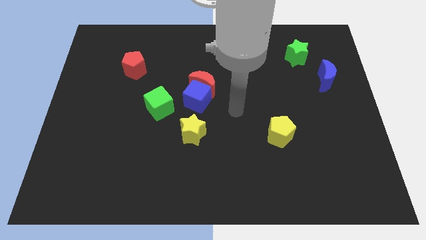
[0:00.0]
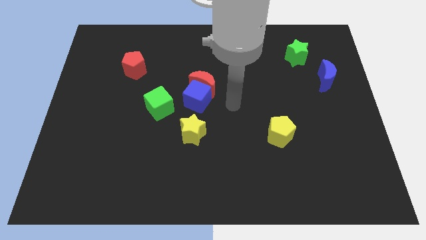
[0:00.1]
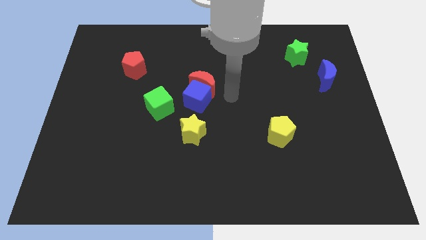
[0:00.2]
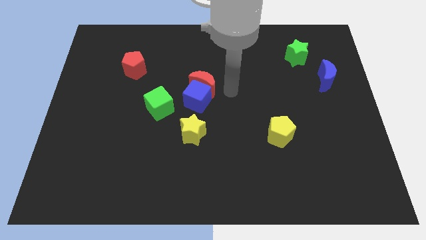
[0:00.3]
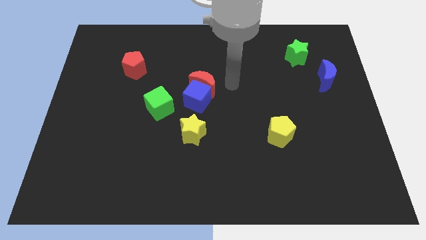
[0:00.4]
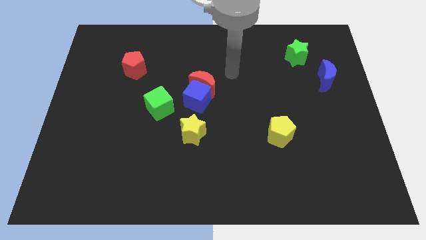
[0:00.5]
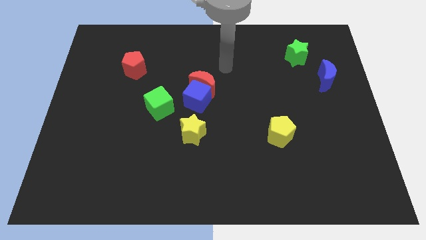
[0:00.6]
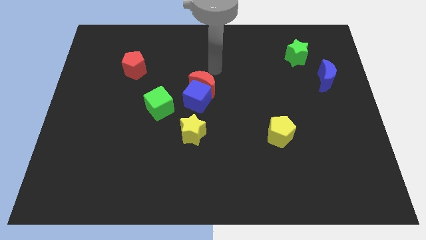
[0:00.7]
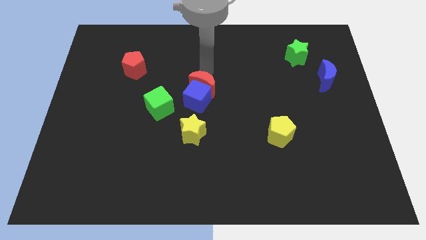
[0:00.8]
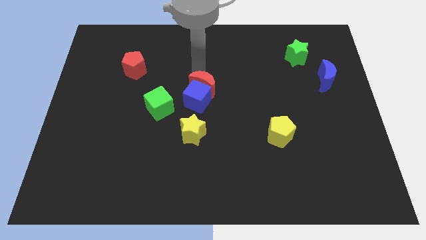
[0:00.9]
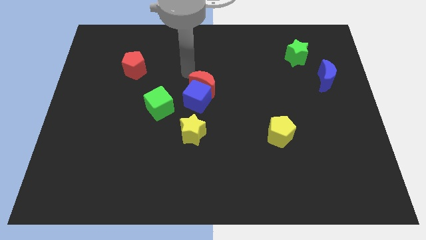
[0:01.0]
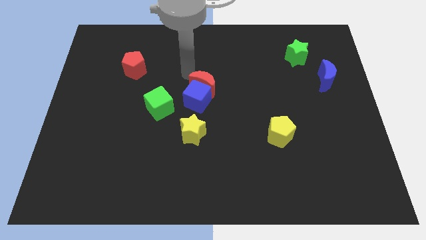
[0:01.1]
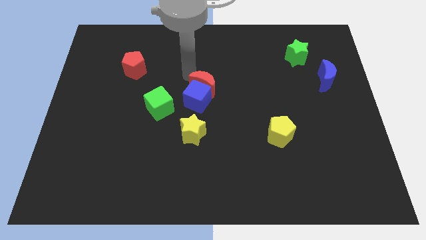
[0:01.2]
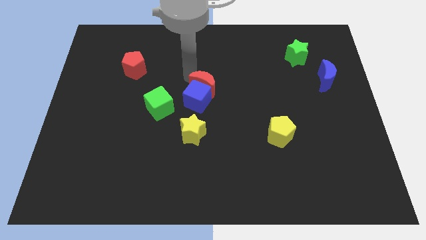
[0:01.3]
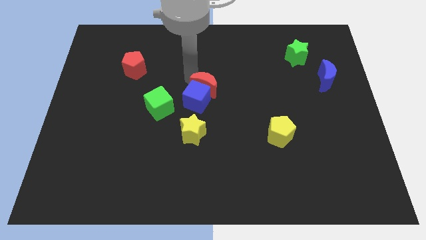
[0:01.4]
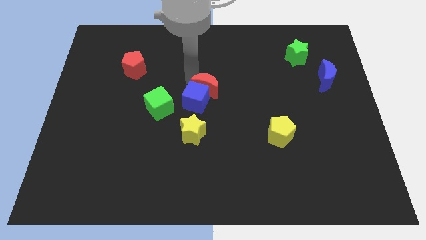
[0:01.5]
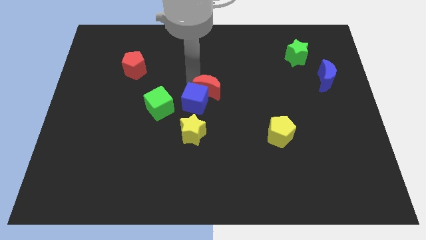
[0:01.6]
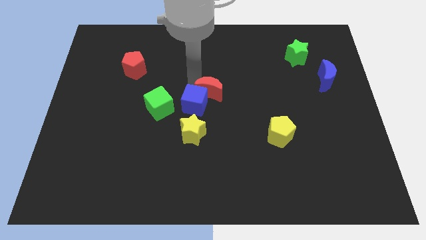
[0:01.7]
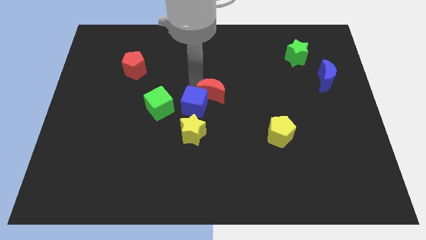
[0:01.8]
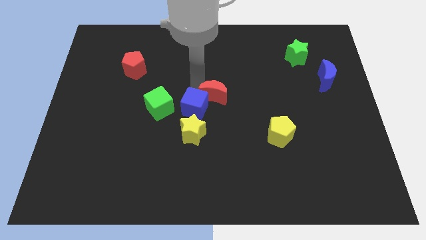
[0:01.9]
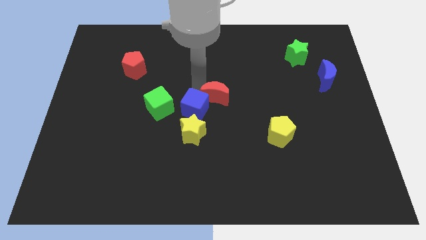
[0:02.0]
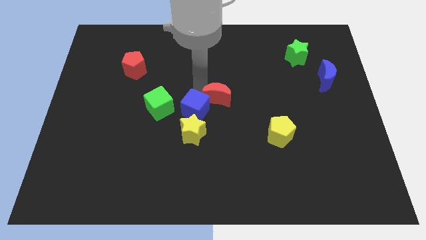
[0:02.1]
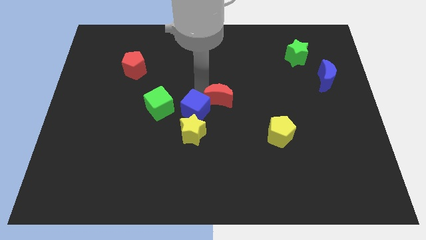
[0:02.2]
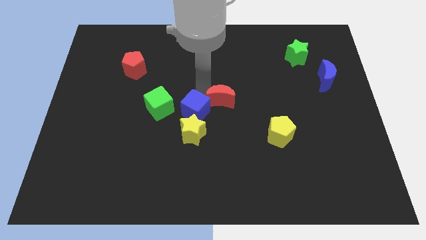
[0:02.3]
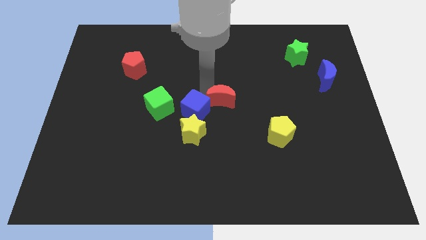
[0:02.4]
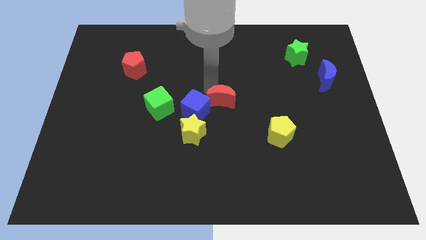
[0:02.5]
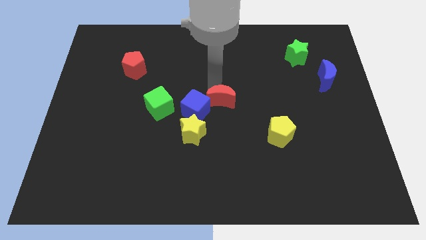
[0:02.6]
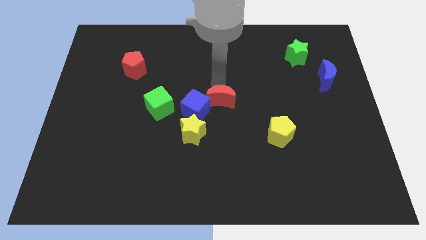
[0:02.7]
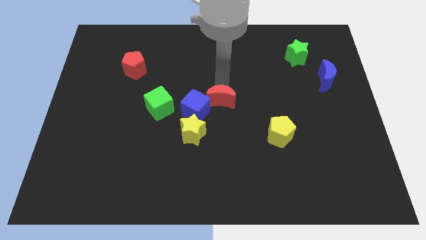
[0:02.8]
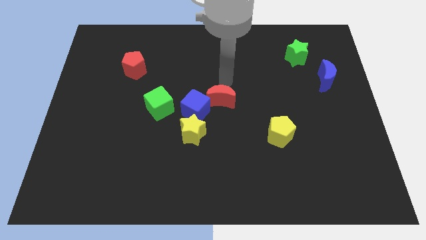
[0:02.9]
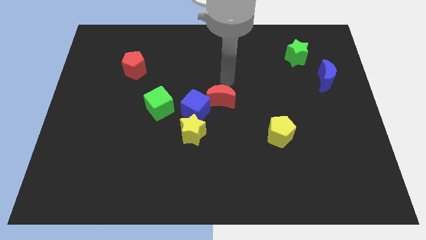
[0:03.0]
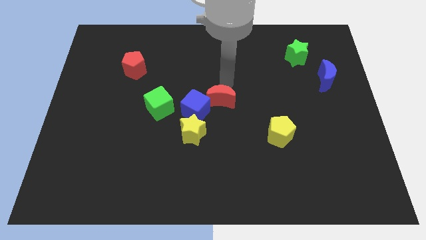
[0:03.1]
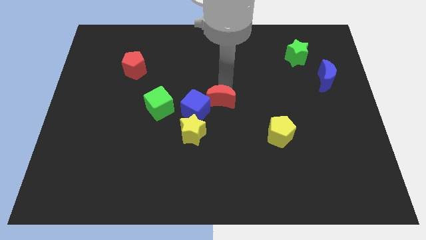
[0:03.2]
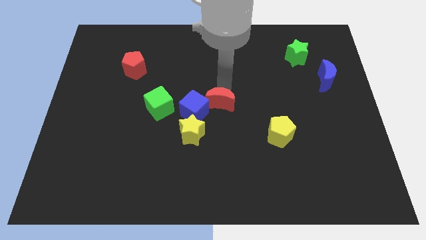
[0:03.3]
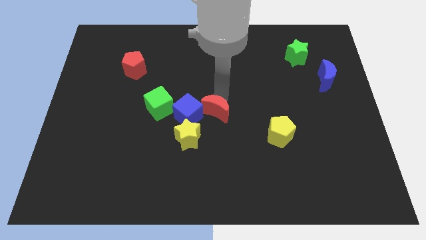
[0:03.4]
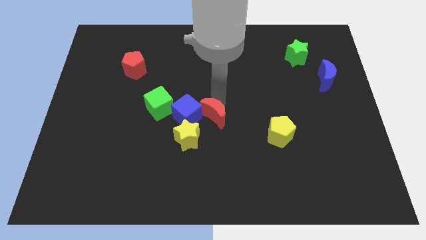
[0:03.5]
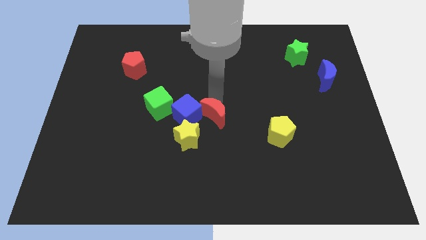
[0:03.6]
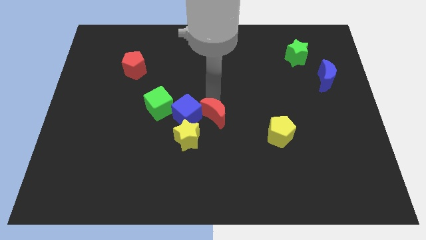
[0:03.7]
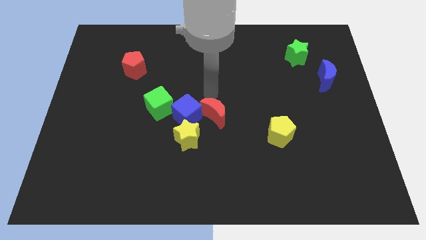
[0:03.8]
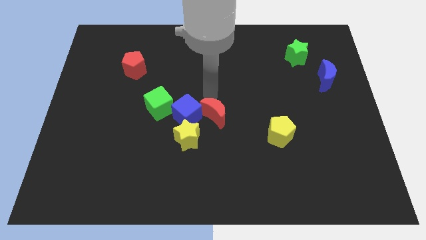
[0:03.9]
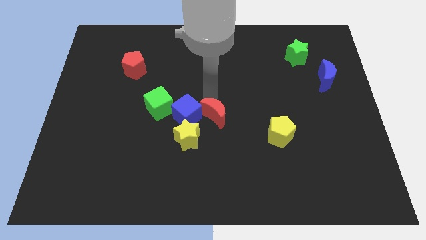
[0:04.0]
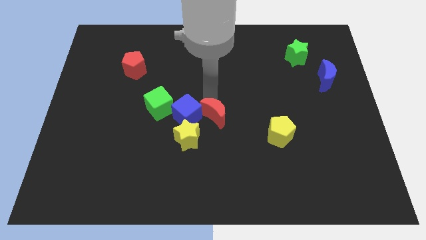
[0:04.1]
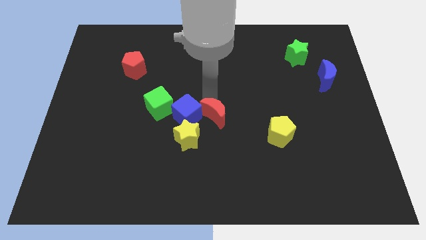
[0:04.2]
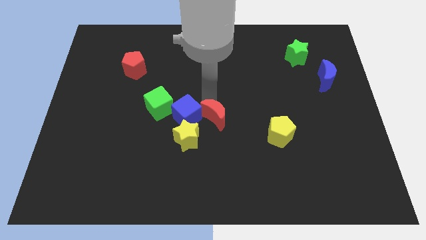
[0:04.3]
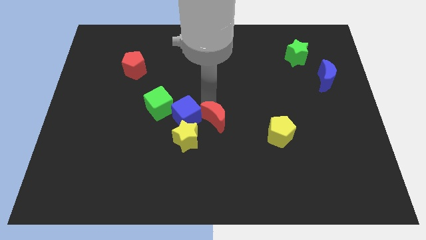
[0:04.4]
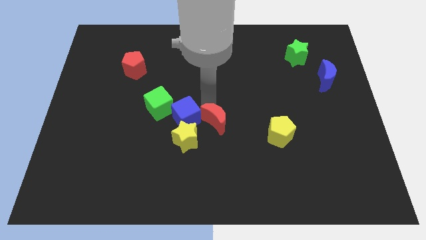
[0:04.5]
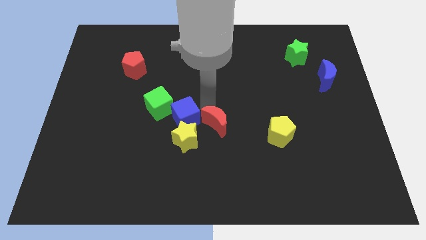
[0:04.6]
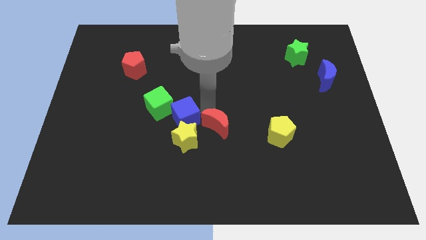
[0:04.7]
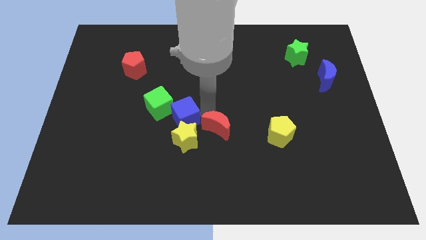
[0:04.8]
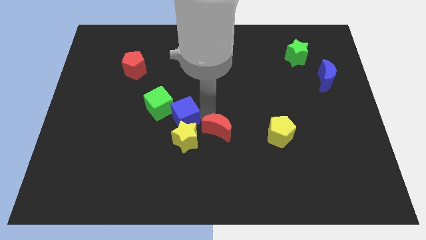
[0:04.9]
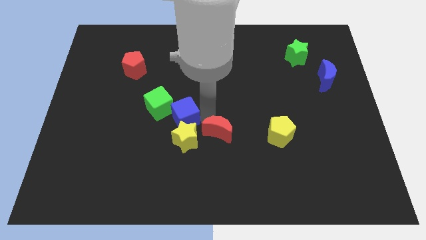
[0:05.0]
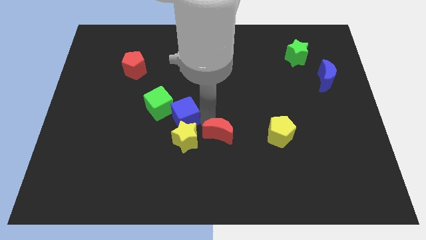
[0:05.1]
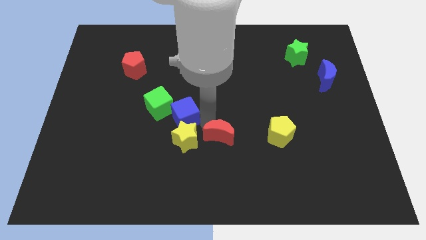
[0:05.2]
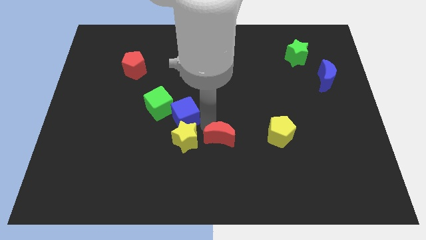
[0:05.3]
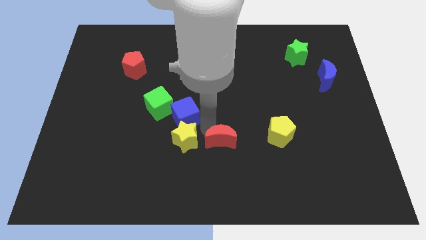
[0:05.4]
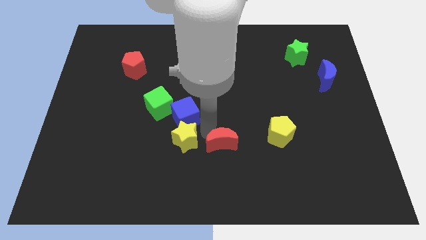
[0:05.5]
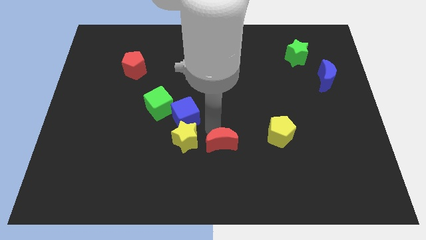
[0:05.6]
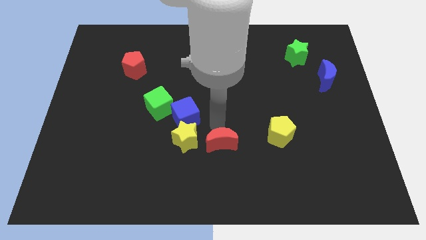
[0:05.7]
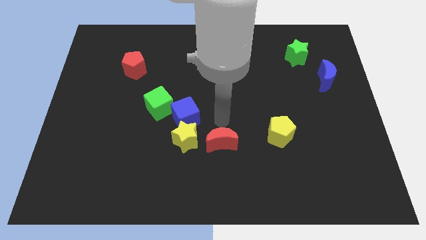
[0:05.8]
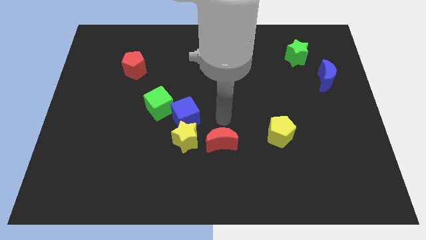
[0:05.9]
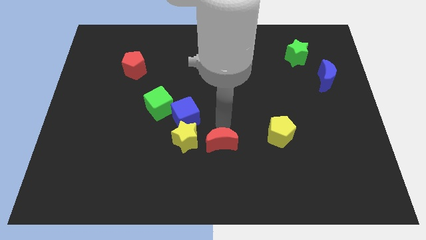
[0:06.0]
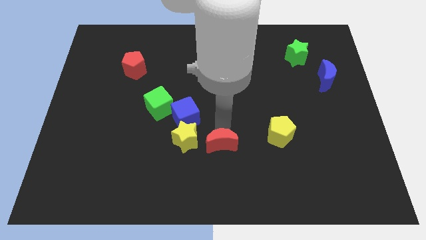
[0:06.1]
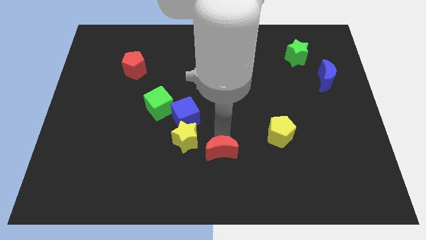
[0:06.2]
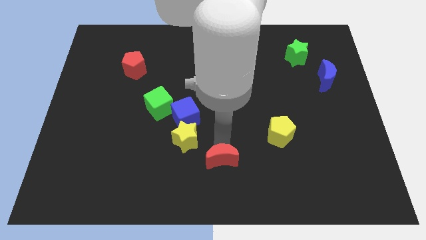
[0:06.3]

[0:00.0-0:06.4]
put the red moon to the bottom side
